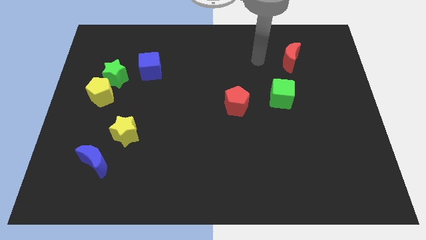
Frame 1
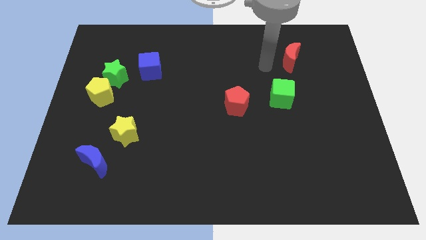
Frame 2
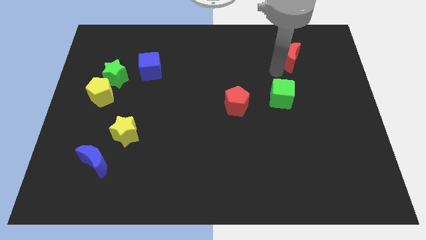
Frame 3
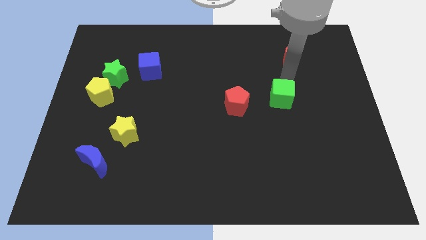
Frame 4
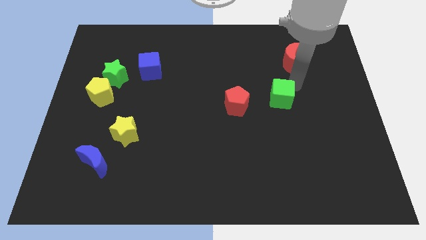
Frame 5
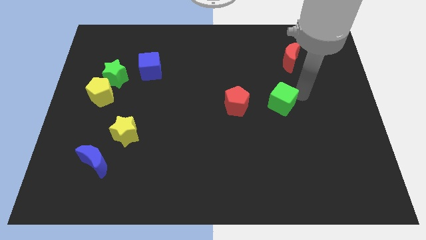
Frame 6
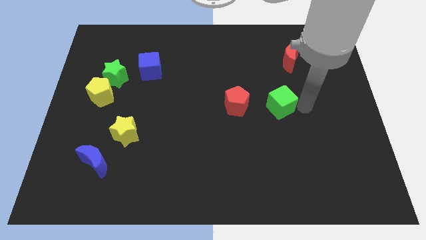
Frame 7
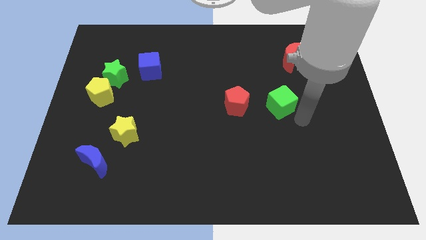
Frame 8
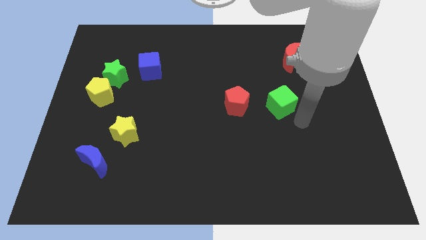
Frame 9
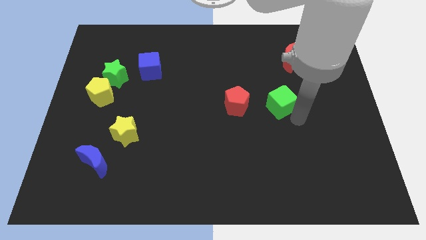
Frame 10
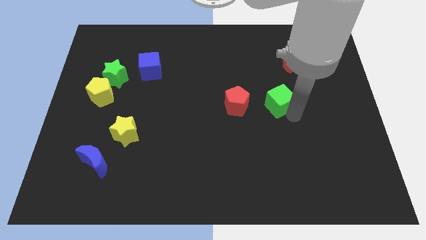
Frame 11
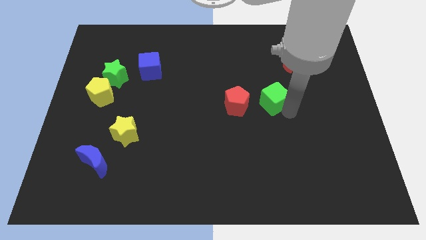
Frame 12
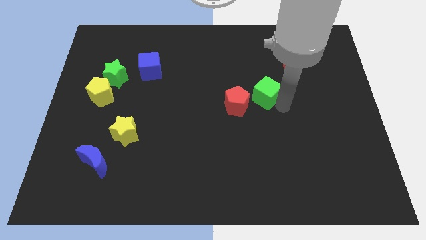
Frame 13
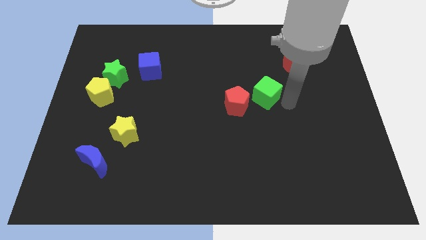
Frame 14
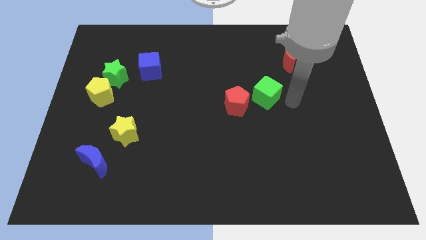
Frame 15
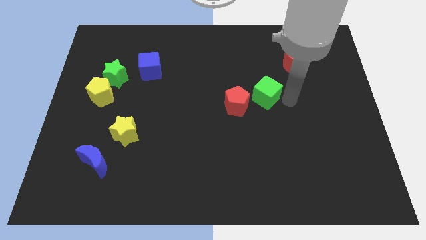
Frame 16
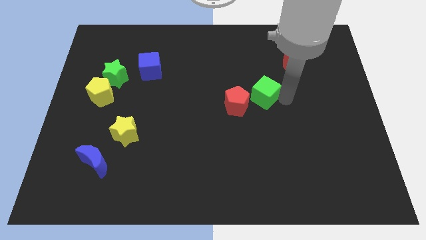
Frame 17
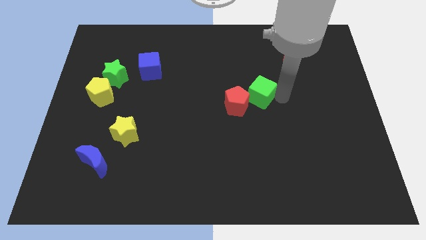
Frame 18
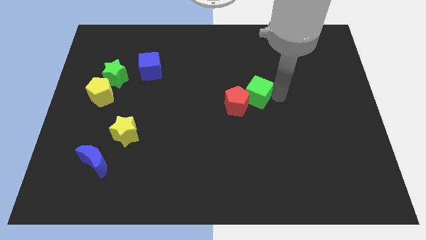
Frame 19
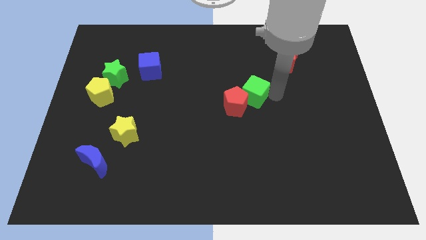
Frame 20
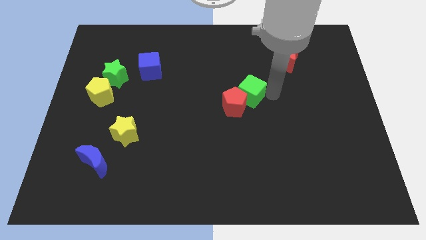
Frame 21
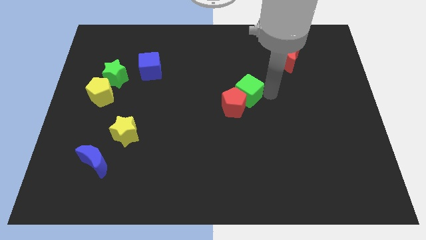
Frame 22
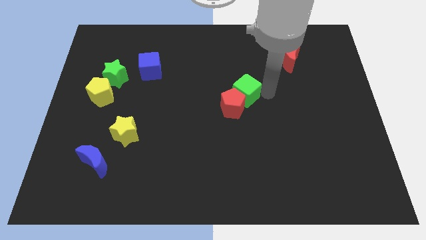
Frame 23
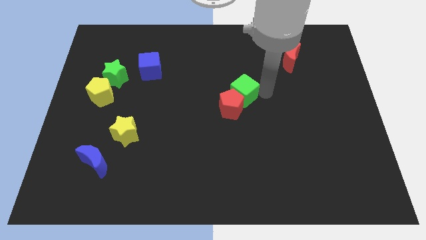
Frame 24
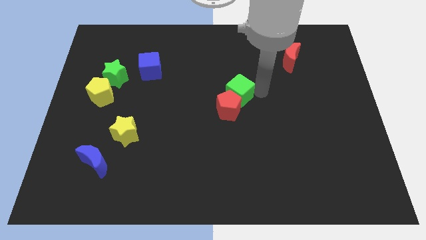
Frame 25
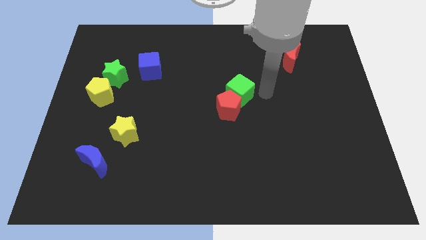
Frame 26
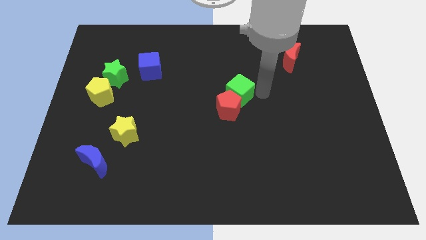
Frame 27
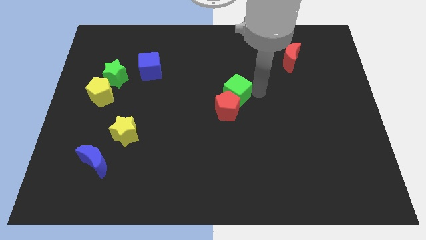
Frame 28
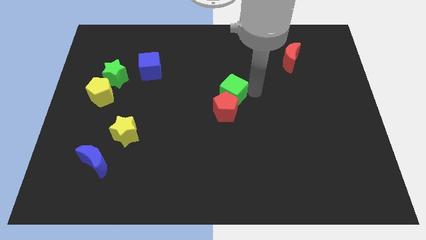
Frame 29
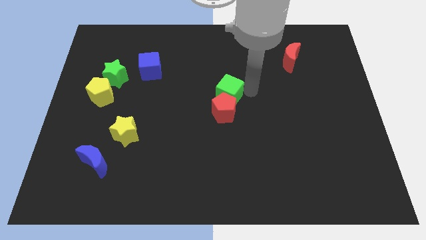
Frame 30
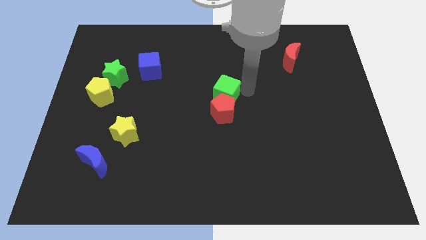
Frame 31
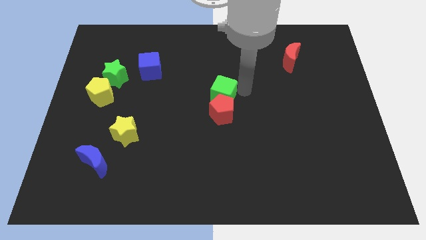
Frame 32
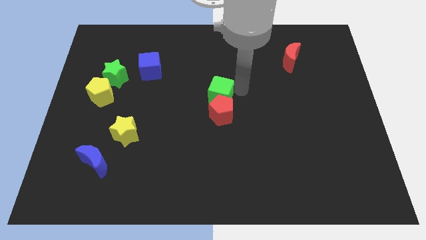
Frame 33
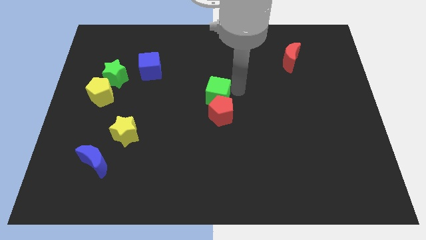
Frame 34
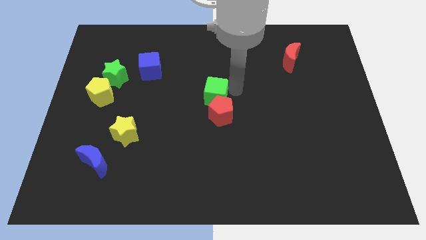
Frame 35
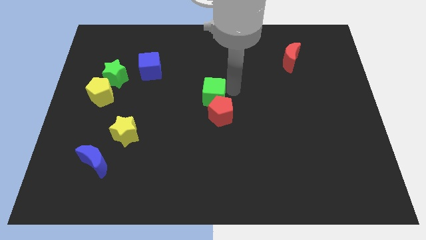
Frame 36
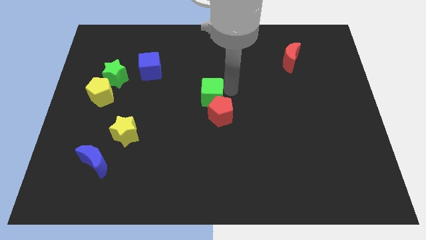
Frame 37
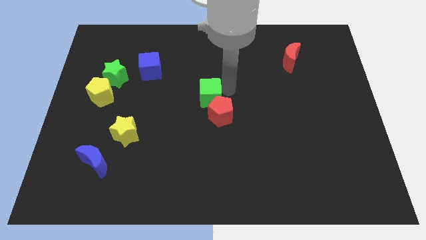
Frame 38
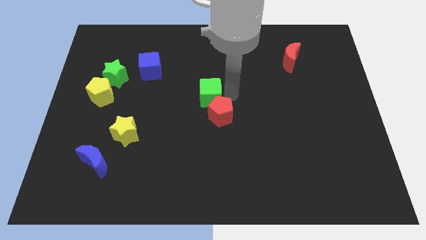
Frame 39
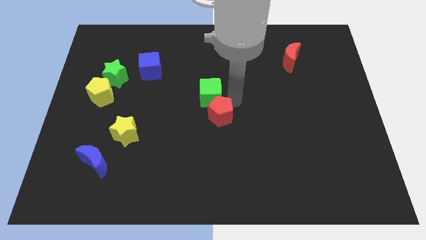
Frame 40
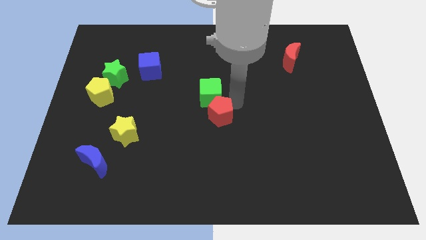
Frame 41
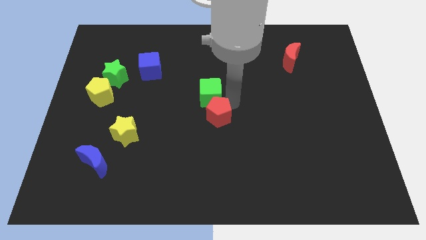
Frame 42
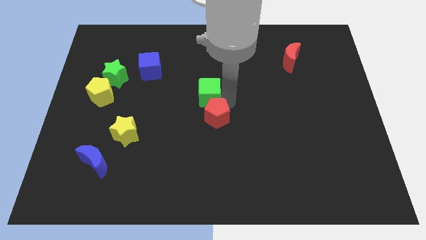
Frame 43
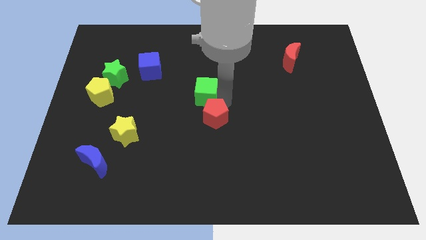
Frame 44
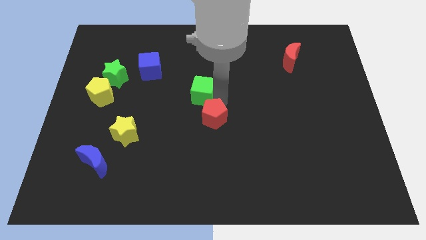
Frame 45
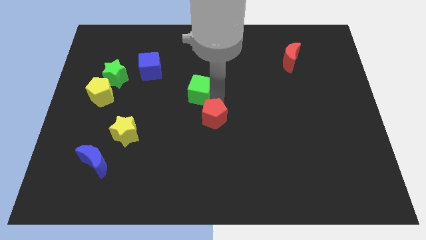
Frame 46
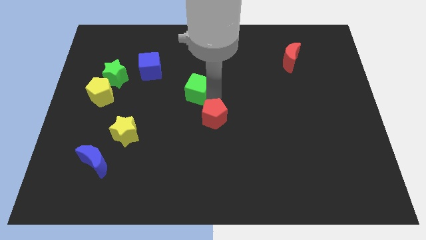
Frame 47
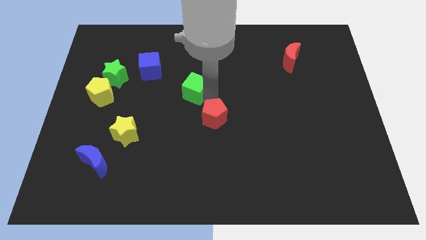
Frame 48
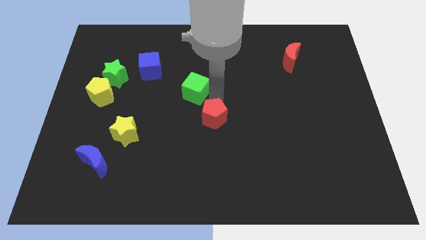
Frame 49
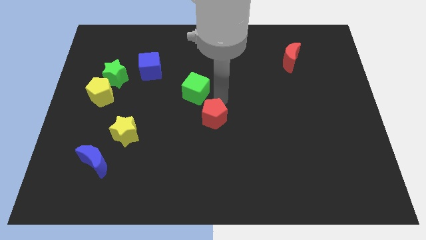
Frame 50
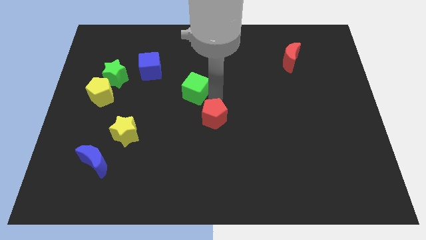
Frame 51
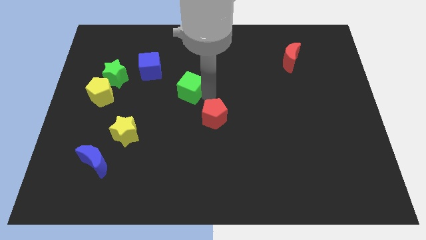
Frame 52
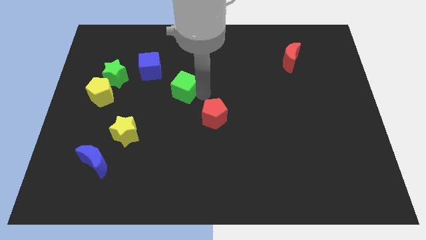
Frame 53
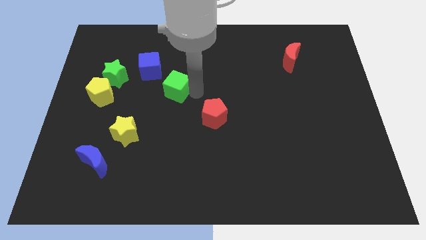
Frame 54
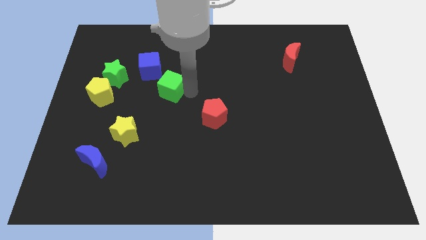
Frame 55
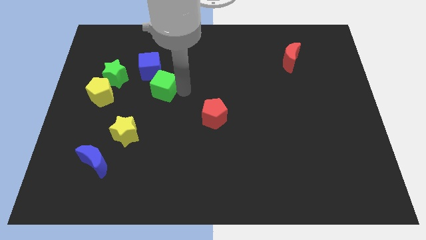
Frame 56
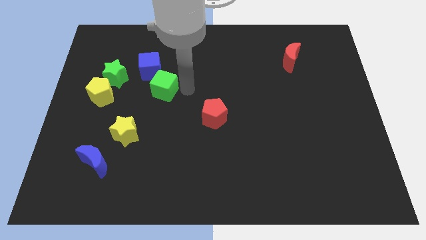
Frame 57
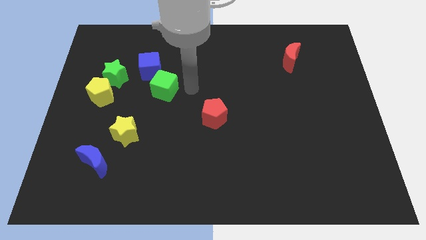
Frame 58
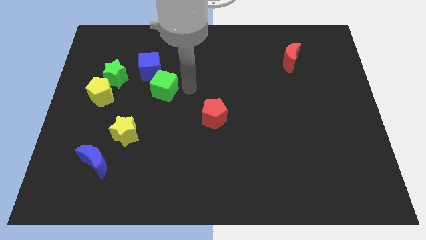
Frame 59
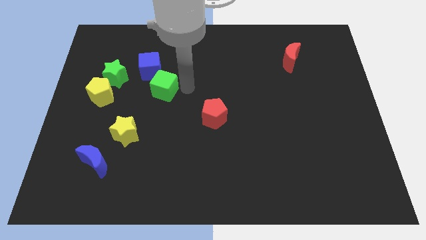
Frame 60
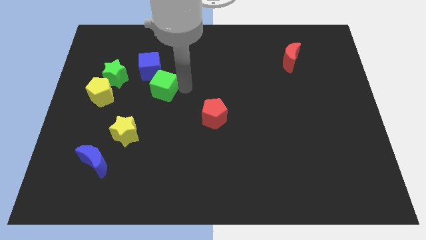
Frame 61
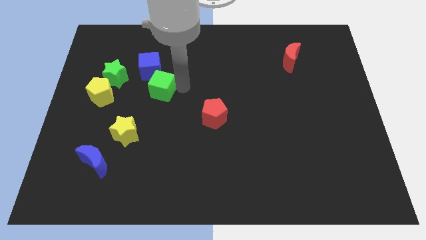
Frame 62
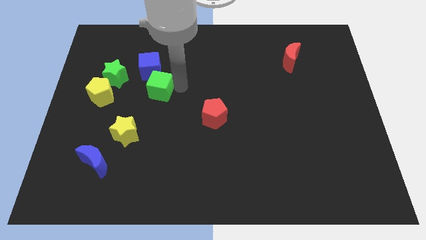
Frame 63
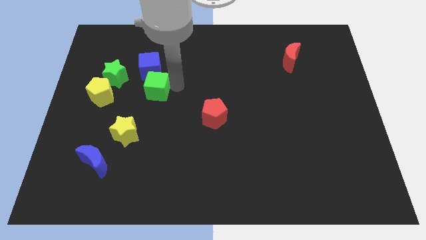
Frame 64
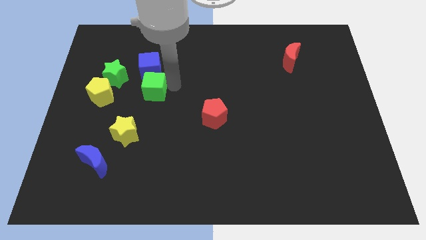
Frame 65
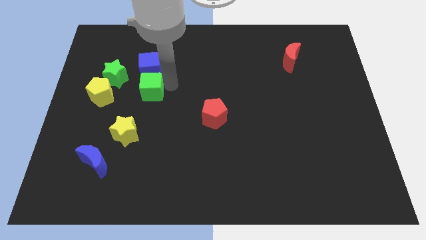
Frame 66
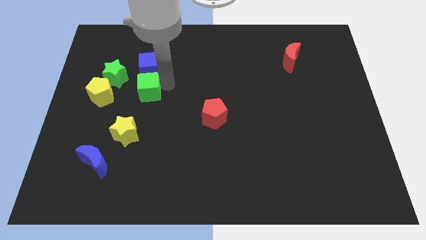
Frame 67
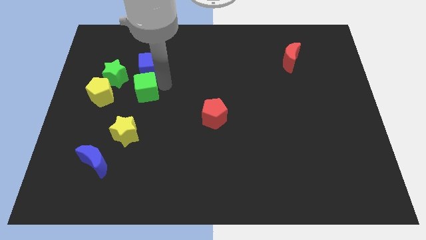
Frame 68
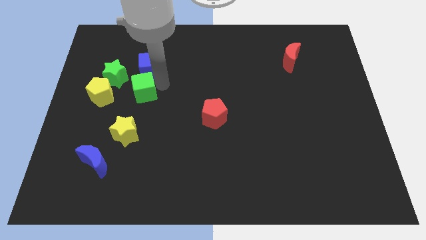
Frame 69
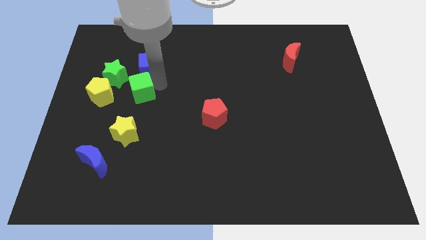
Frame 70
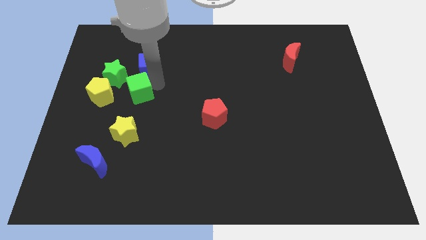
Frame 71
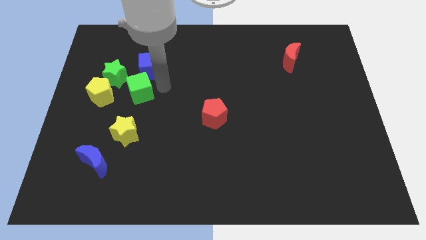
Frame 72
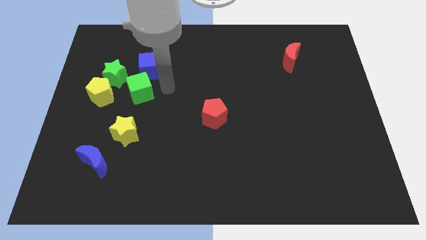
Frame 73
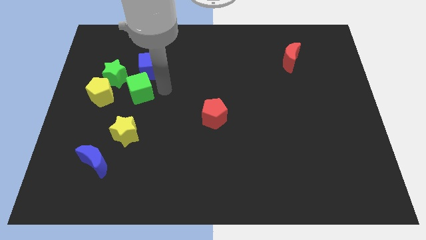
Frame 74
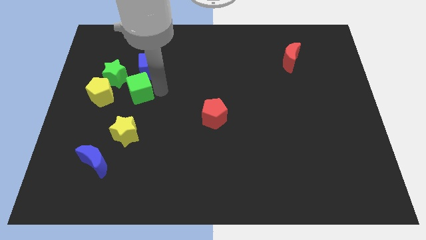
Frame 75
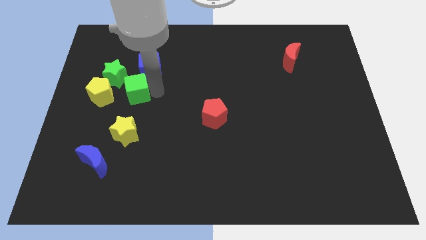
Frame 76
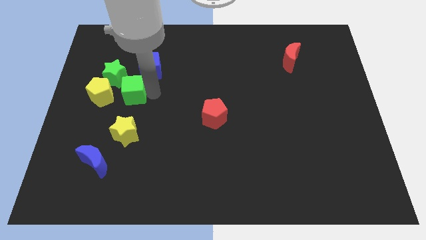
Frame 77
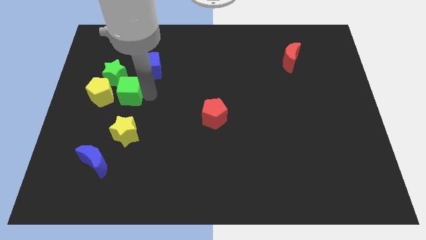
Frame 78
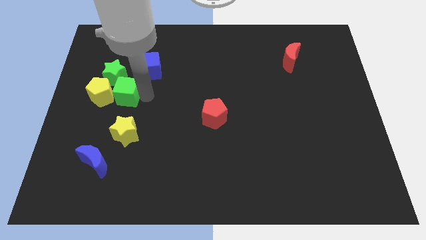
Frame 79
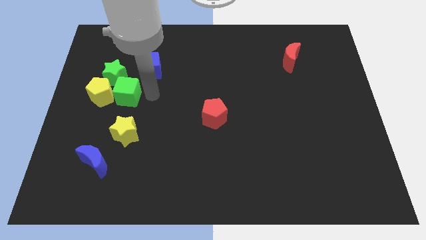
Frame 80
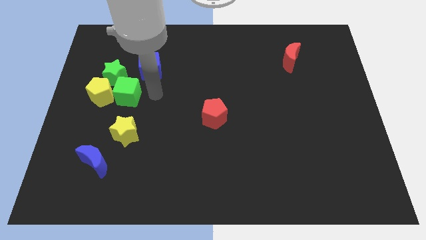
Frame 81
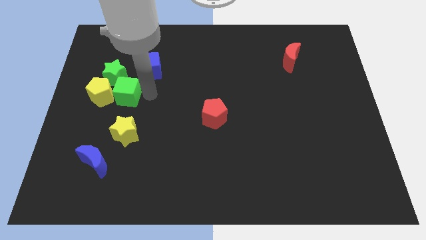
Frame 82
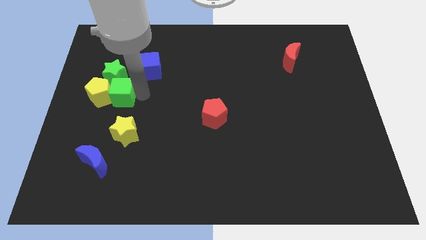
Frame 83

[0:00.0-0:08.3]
slide the green cube to the yellow pentagon
